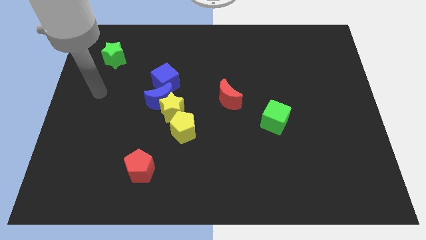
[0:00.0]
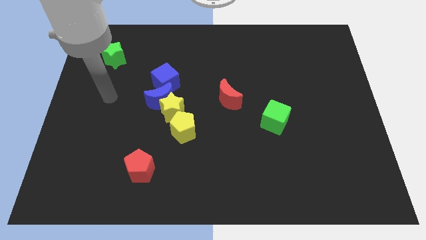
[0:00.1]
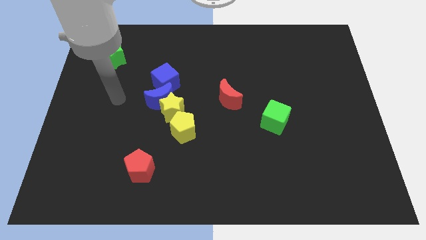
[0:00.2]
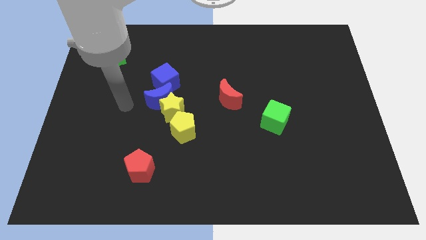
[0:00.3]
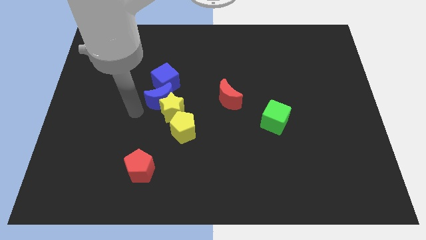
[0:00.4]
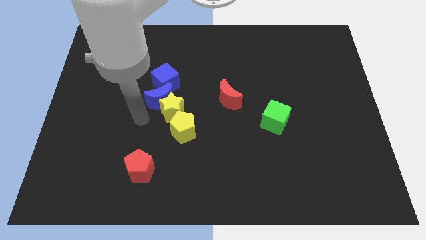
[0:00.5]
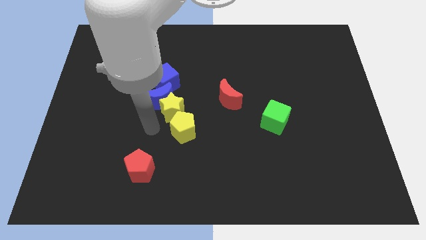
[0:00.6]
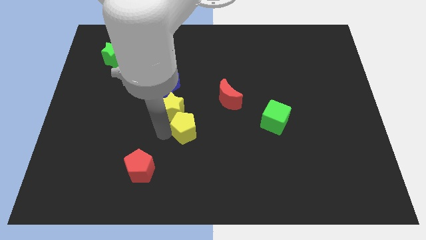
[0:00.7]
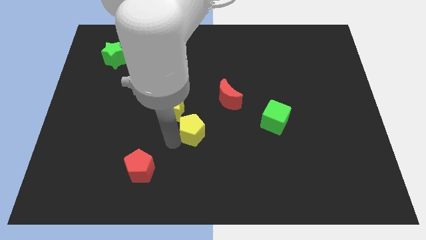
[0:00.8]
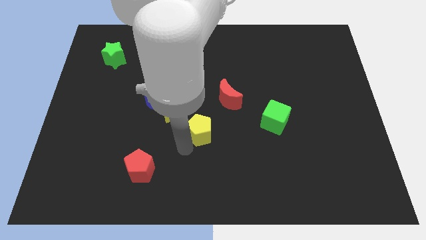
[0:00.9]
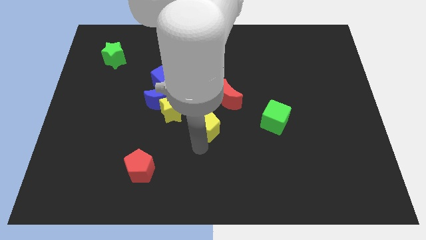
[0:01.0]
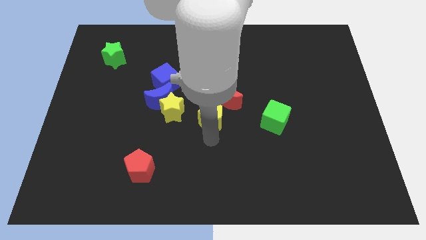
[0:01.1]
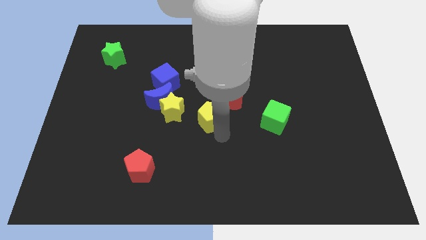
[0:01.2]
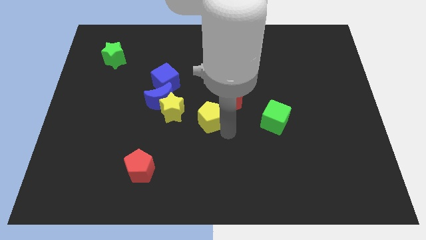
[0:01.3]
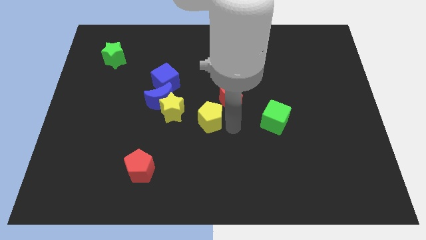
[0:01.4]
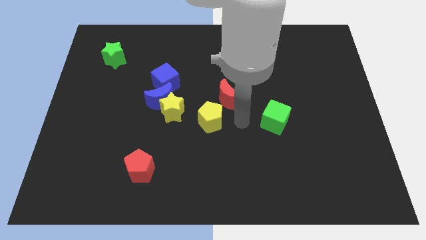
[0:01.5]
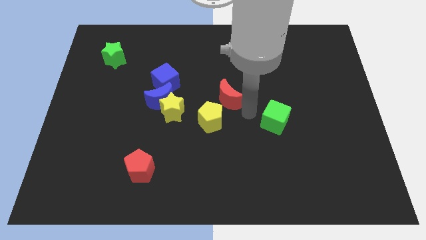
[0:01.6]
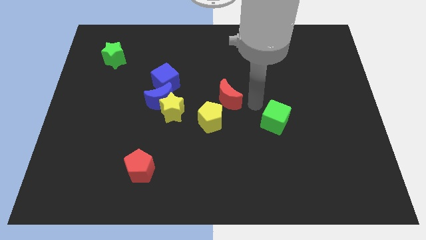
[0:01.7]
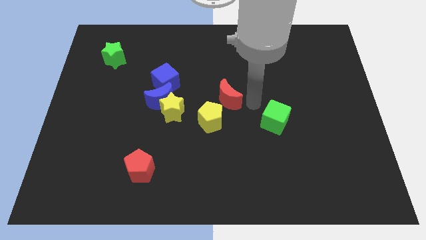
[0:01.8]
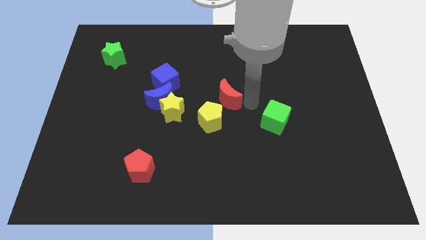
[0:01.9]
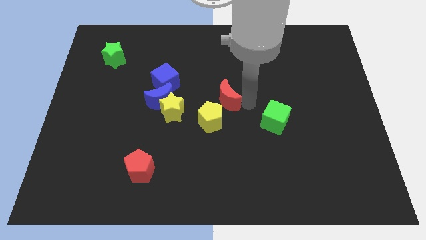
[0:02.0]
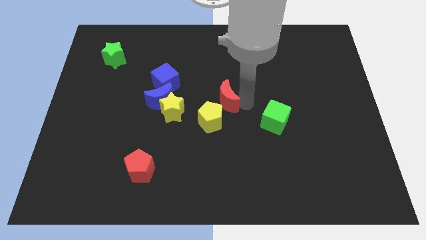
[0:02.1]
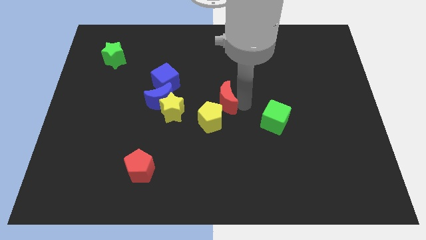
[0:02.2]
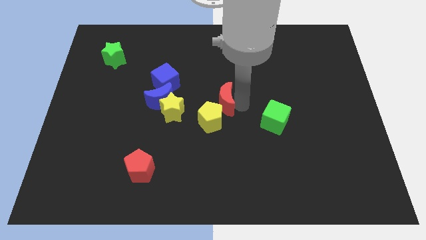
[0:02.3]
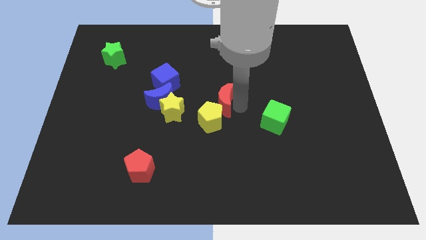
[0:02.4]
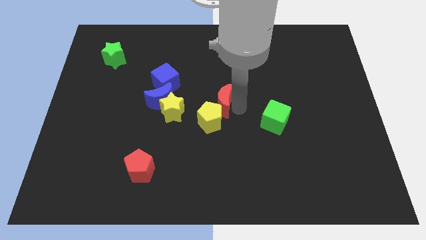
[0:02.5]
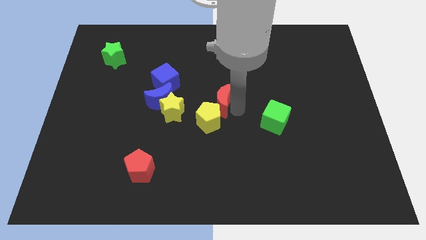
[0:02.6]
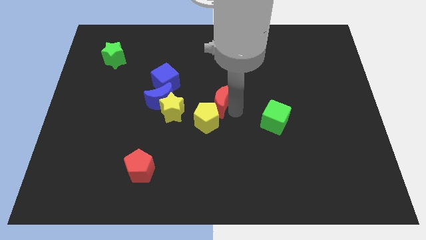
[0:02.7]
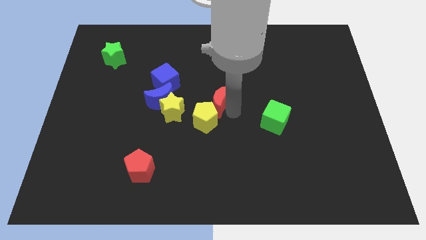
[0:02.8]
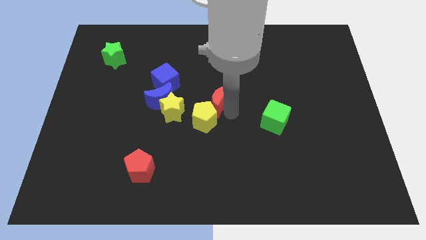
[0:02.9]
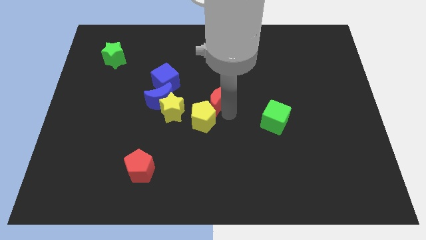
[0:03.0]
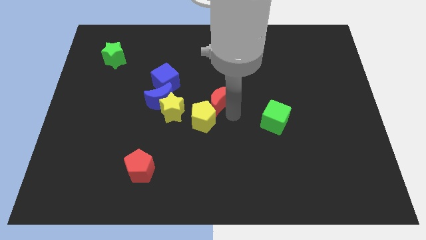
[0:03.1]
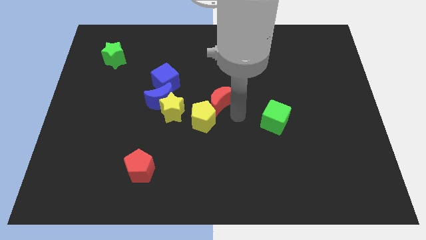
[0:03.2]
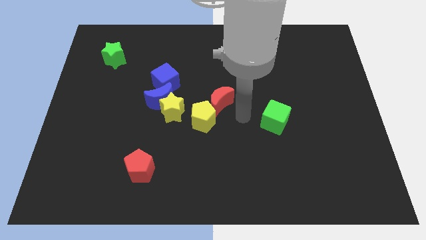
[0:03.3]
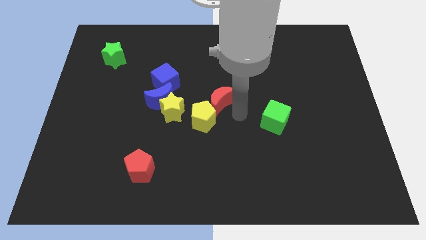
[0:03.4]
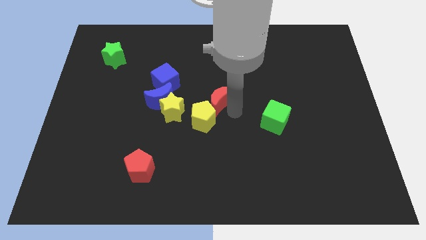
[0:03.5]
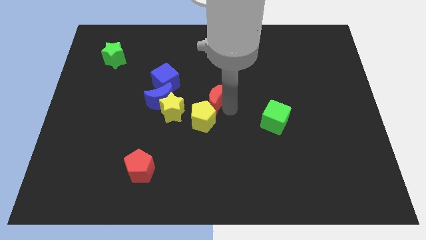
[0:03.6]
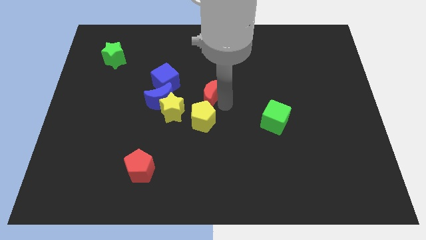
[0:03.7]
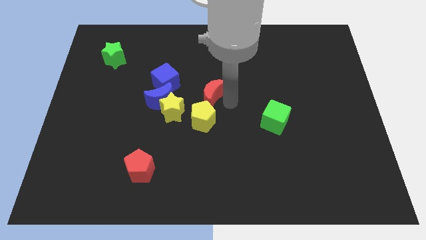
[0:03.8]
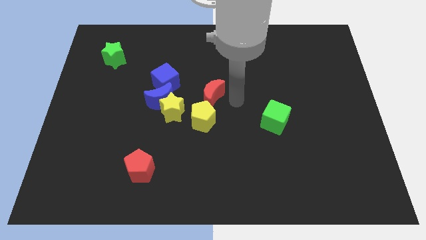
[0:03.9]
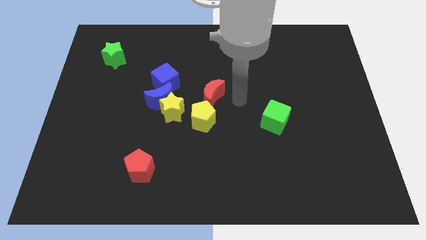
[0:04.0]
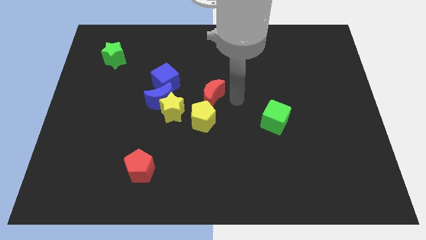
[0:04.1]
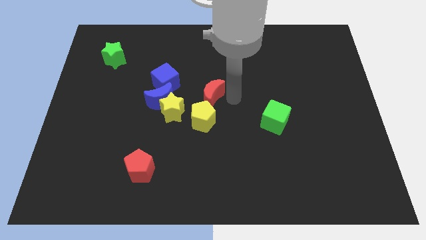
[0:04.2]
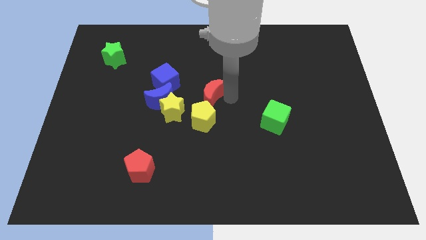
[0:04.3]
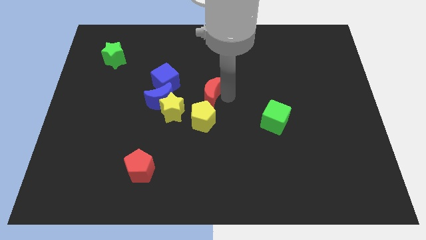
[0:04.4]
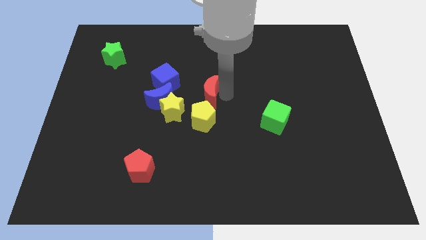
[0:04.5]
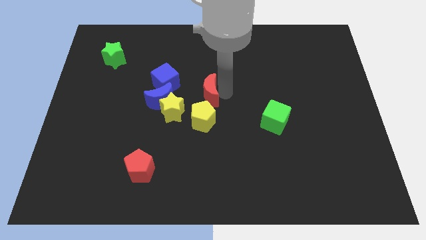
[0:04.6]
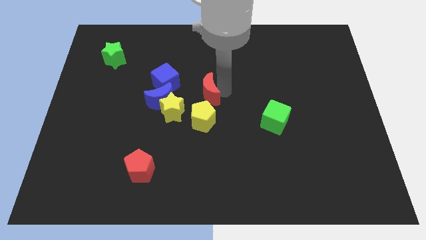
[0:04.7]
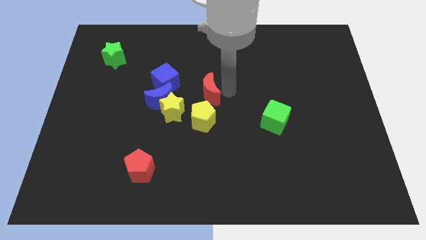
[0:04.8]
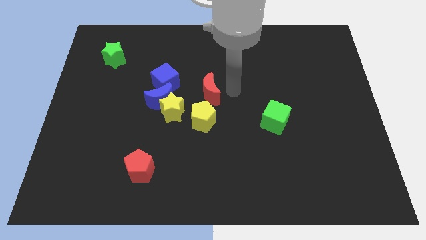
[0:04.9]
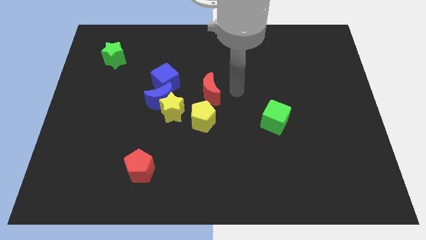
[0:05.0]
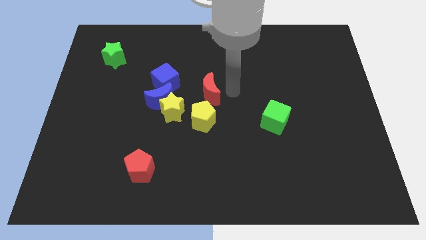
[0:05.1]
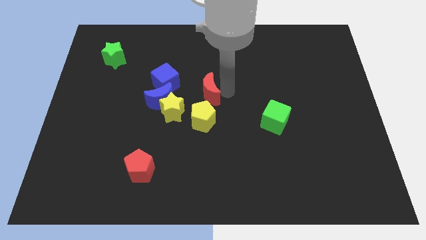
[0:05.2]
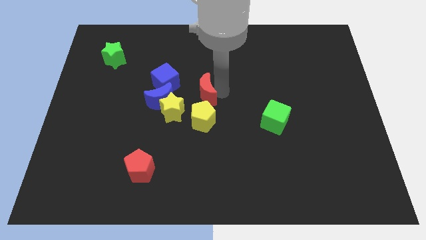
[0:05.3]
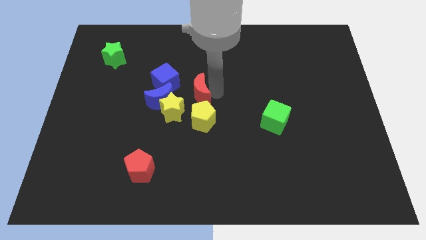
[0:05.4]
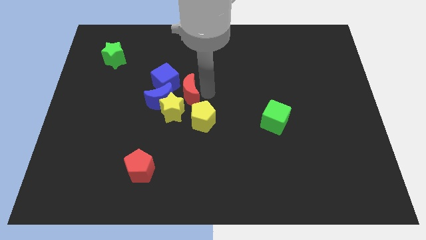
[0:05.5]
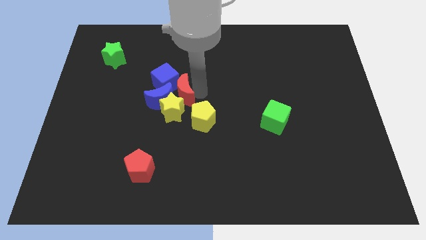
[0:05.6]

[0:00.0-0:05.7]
slide the red moon towards the blue moon

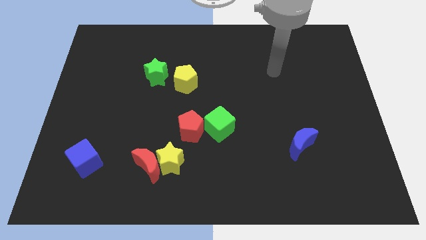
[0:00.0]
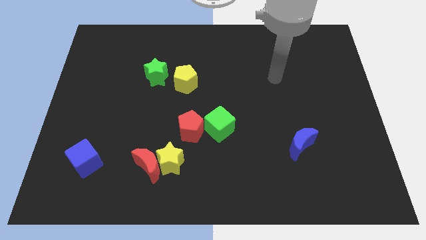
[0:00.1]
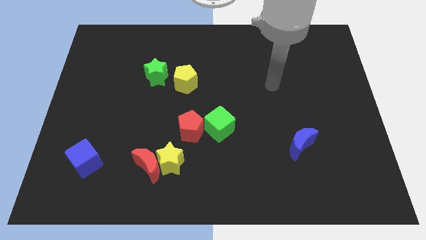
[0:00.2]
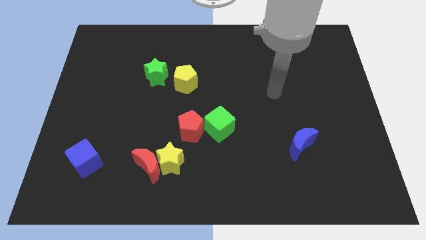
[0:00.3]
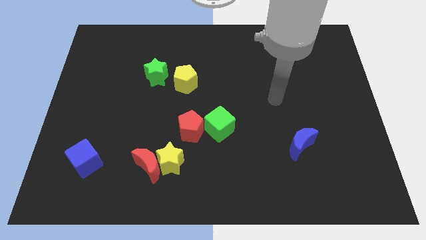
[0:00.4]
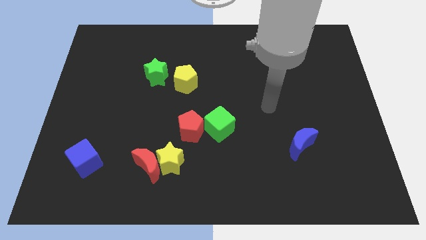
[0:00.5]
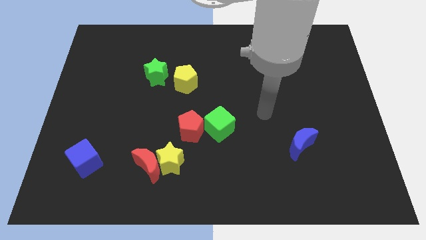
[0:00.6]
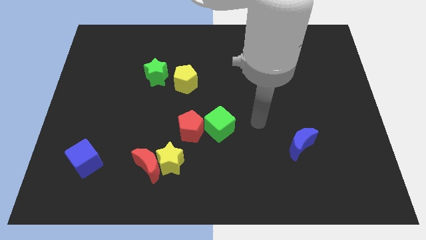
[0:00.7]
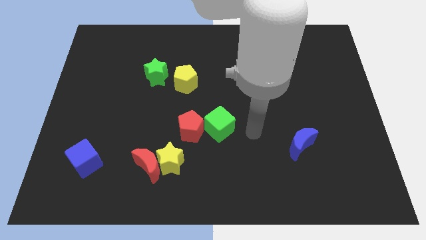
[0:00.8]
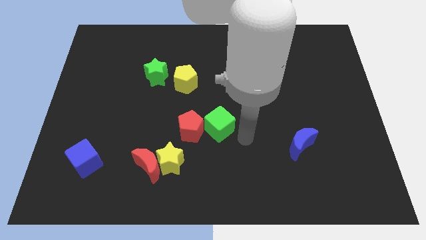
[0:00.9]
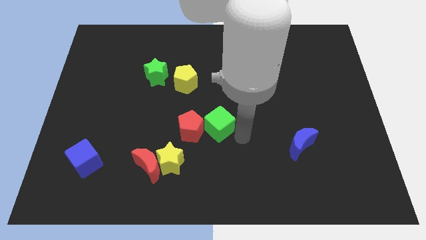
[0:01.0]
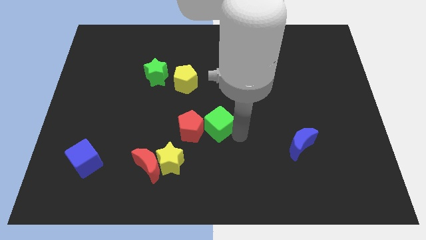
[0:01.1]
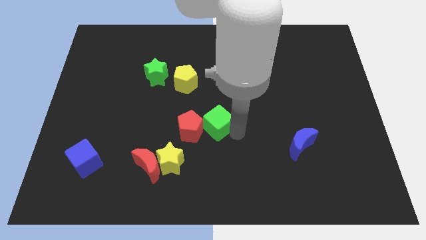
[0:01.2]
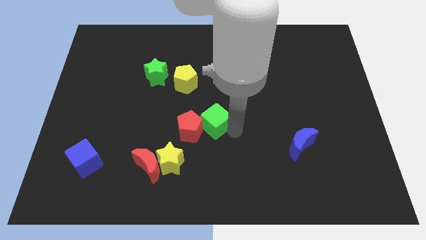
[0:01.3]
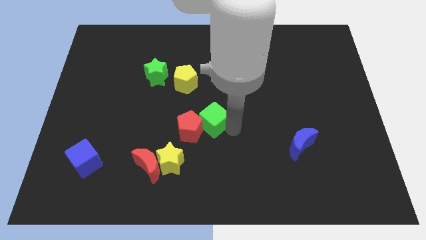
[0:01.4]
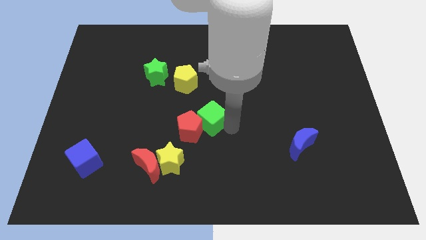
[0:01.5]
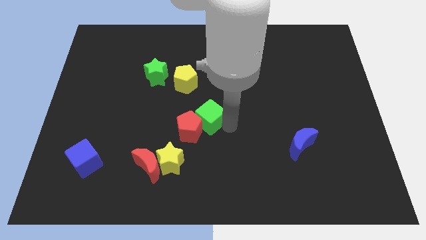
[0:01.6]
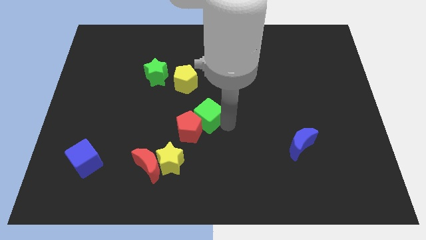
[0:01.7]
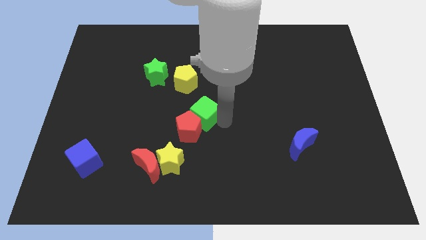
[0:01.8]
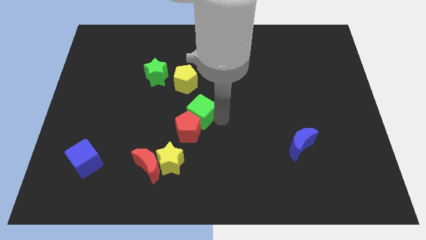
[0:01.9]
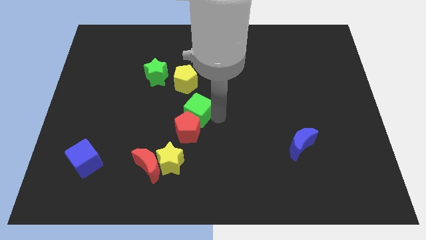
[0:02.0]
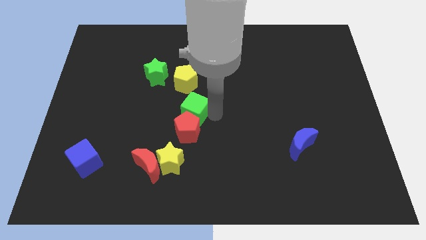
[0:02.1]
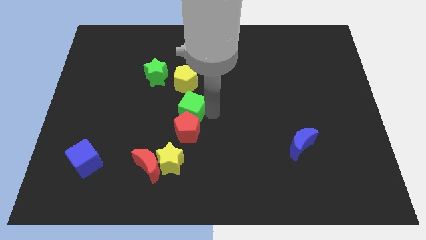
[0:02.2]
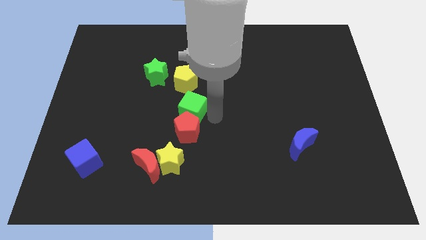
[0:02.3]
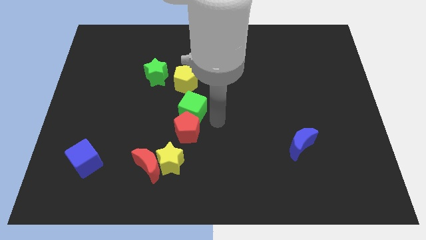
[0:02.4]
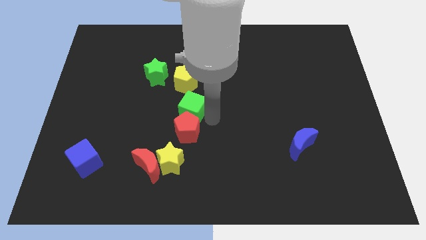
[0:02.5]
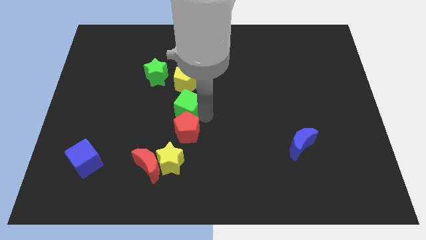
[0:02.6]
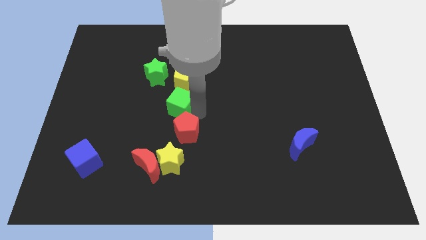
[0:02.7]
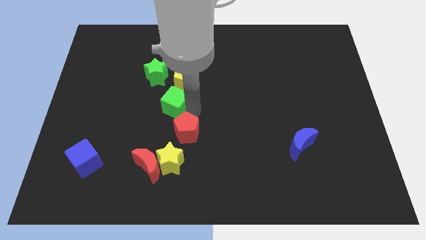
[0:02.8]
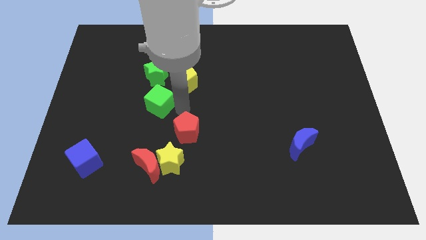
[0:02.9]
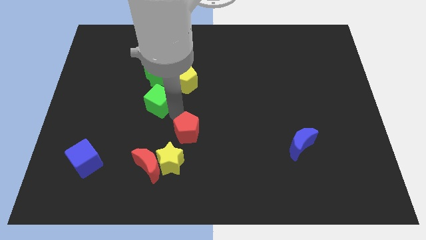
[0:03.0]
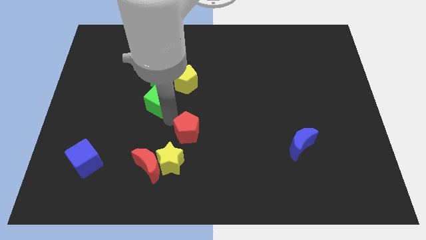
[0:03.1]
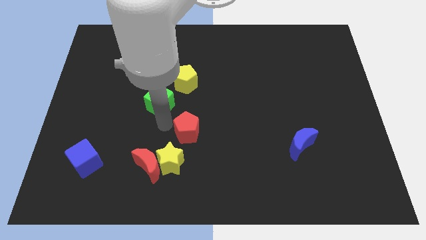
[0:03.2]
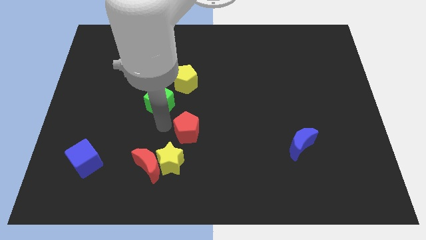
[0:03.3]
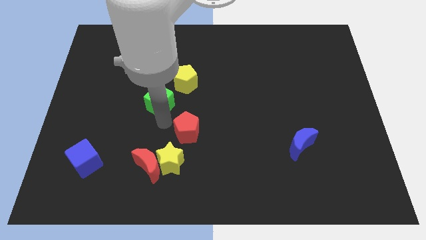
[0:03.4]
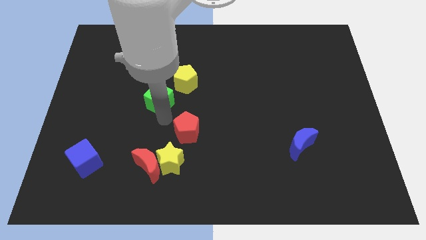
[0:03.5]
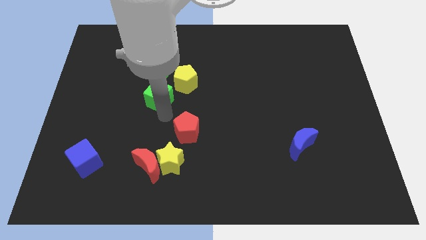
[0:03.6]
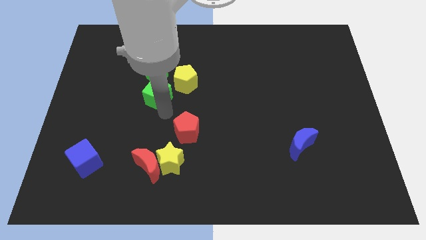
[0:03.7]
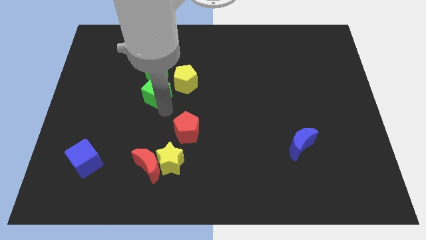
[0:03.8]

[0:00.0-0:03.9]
push the green cube close to the green star
